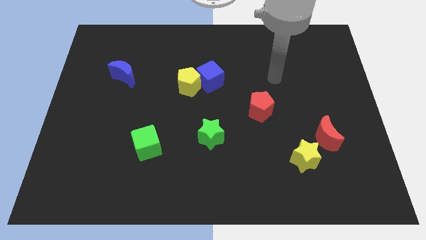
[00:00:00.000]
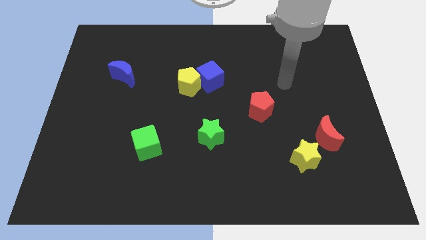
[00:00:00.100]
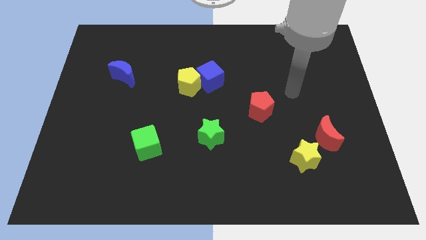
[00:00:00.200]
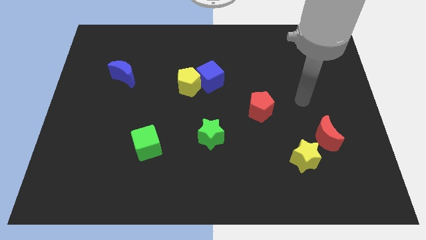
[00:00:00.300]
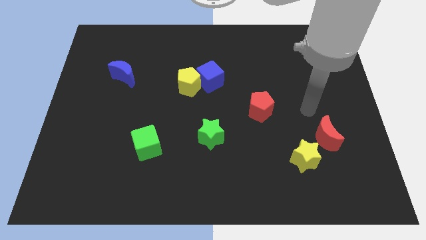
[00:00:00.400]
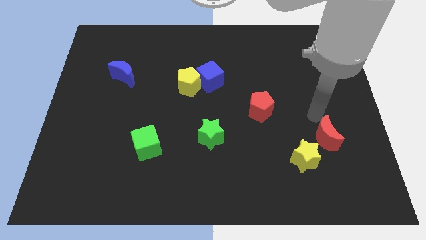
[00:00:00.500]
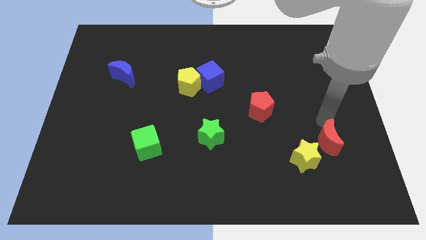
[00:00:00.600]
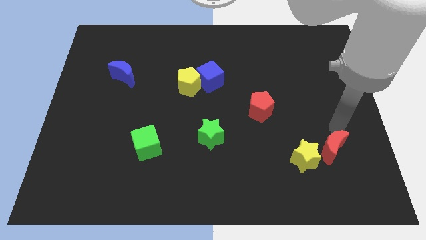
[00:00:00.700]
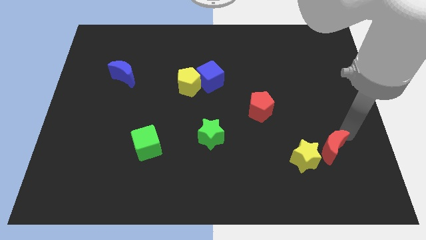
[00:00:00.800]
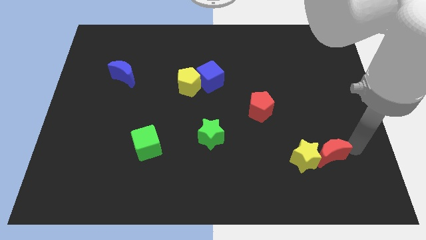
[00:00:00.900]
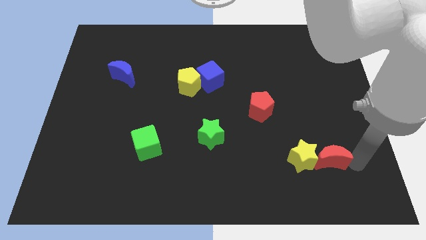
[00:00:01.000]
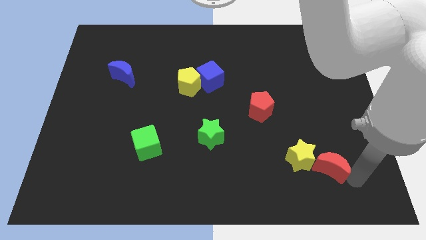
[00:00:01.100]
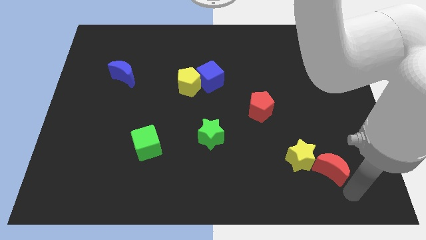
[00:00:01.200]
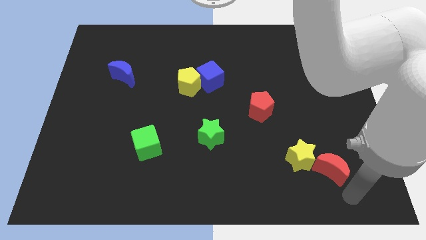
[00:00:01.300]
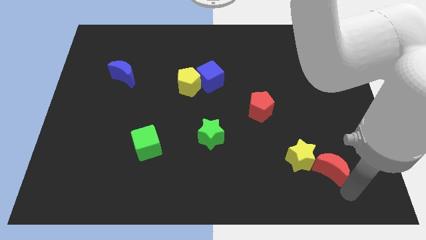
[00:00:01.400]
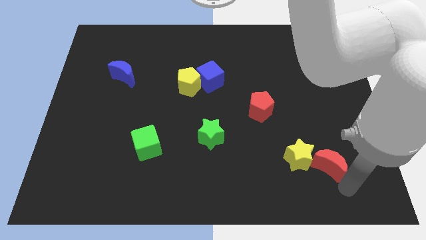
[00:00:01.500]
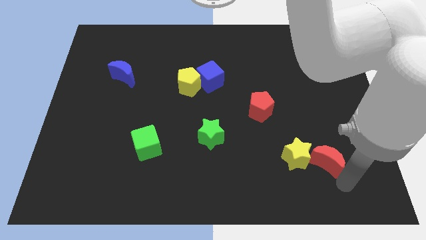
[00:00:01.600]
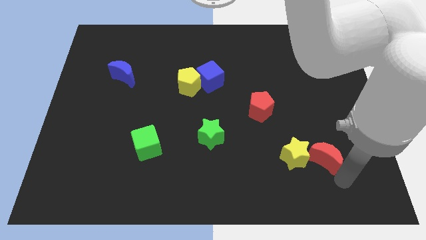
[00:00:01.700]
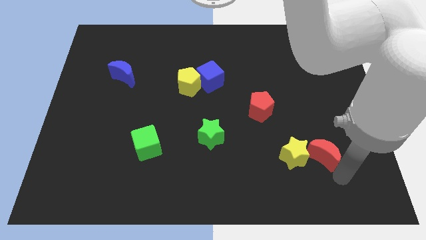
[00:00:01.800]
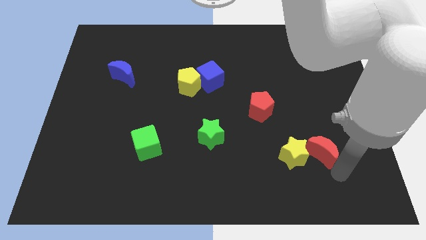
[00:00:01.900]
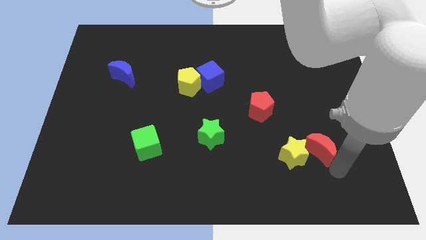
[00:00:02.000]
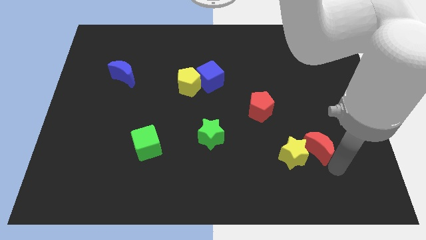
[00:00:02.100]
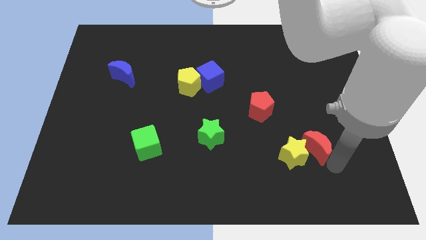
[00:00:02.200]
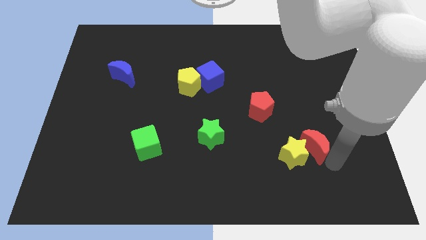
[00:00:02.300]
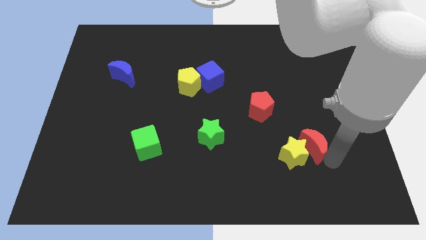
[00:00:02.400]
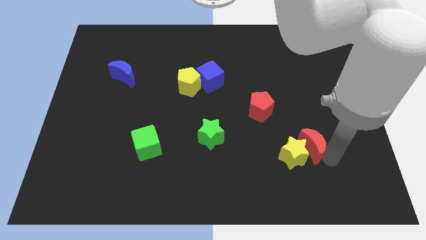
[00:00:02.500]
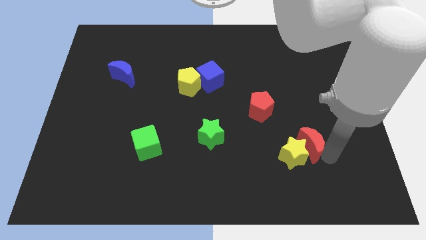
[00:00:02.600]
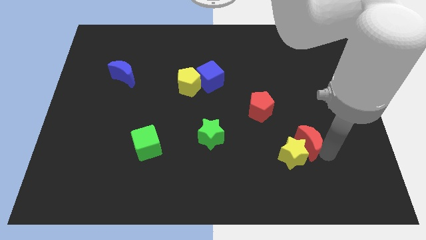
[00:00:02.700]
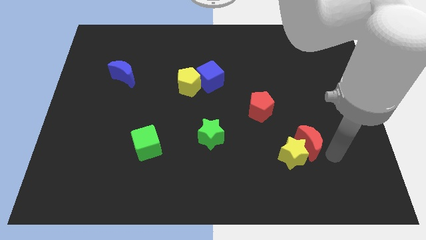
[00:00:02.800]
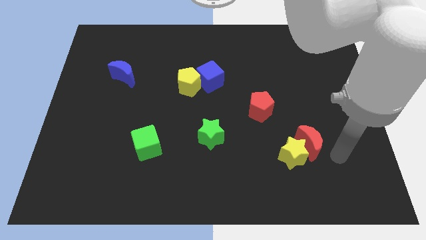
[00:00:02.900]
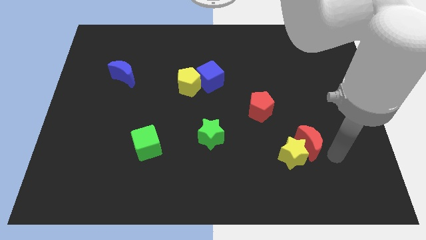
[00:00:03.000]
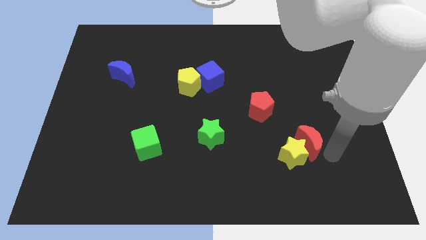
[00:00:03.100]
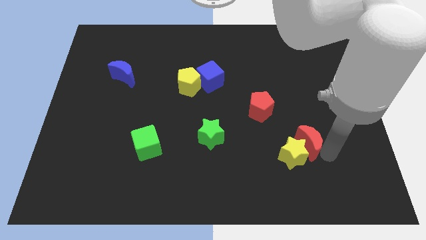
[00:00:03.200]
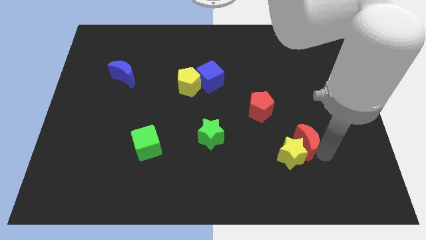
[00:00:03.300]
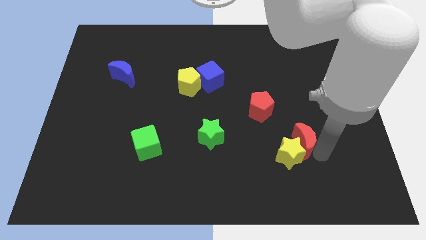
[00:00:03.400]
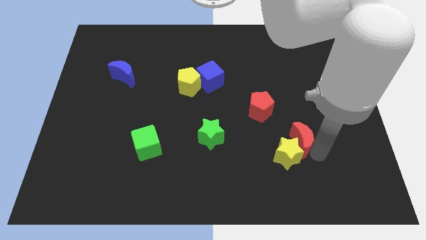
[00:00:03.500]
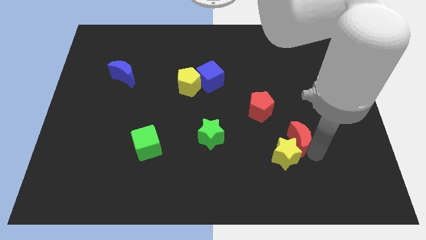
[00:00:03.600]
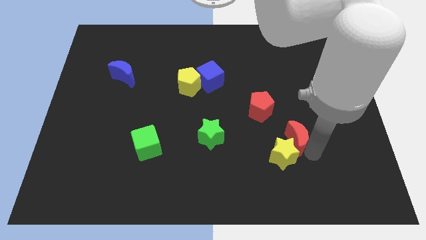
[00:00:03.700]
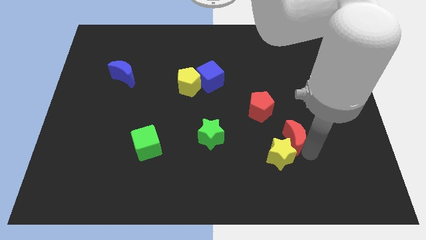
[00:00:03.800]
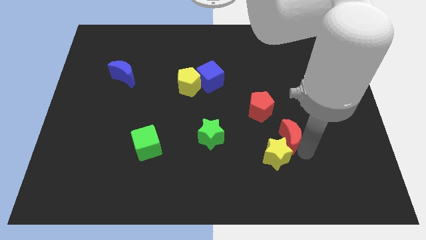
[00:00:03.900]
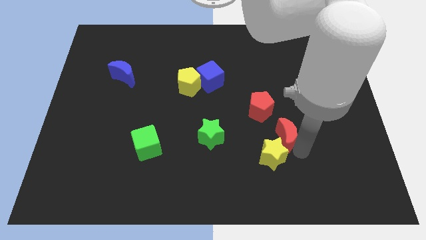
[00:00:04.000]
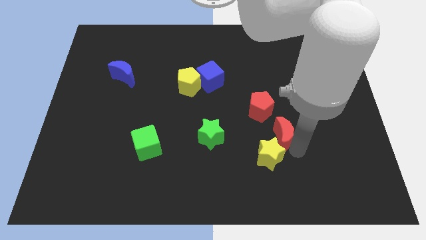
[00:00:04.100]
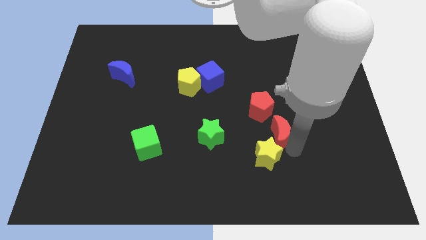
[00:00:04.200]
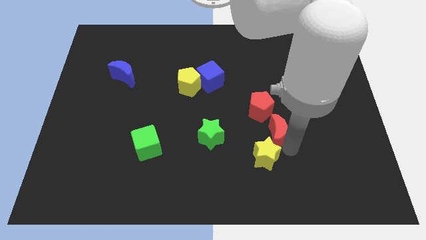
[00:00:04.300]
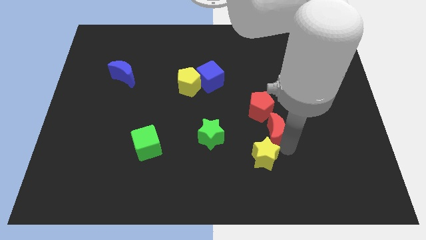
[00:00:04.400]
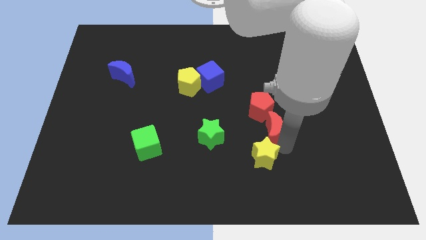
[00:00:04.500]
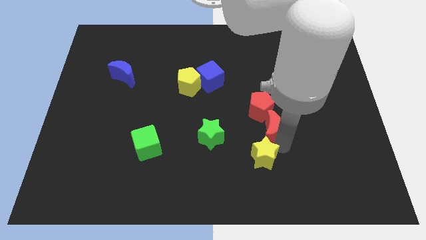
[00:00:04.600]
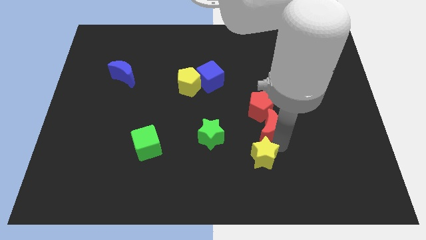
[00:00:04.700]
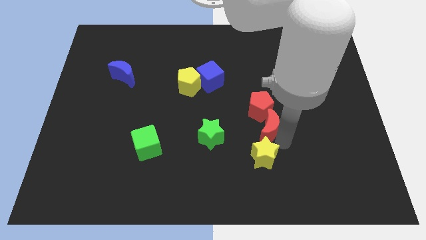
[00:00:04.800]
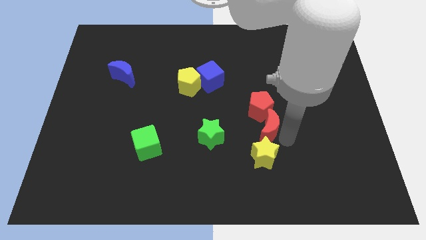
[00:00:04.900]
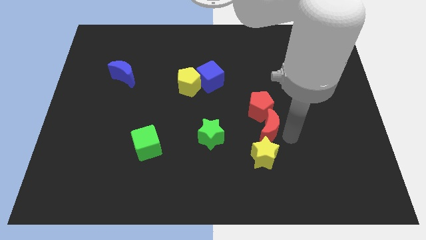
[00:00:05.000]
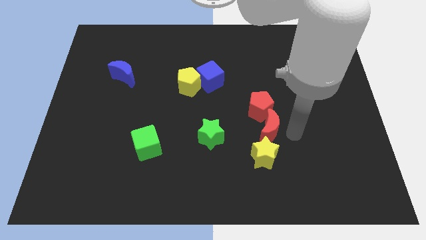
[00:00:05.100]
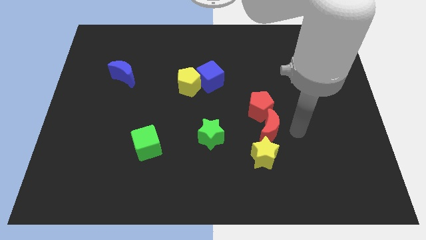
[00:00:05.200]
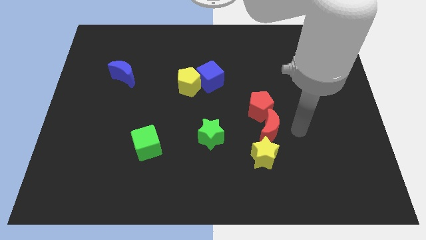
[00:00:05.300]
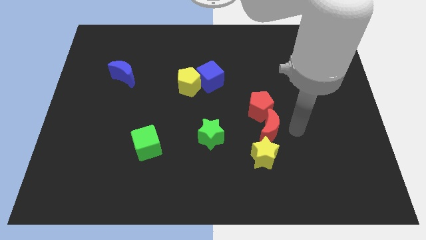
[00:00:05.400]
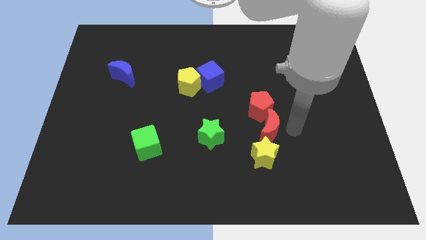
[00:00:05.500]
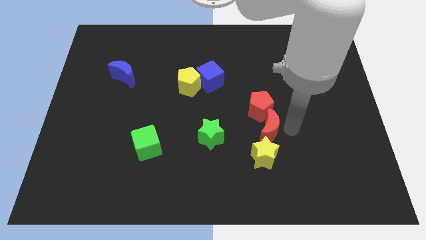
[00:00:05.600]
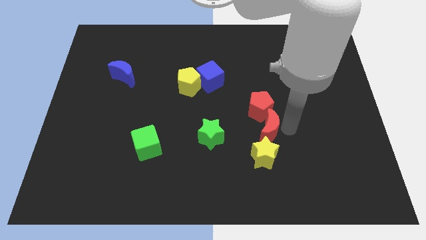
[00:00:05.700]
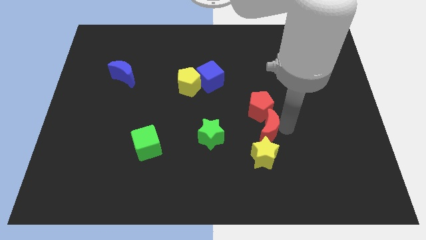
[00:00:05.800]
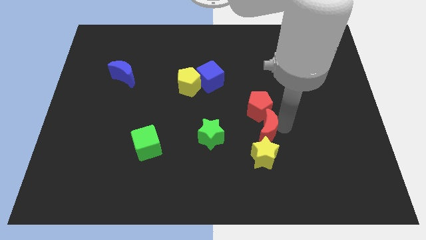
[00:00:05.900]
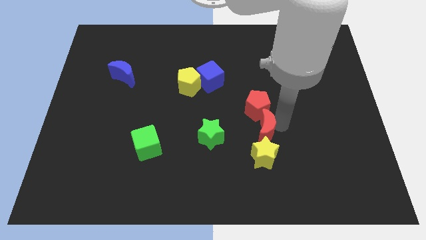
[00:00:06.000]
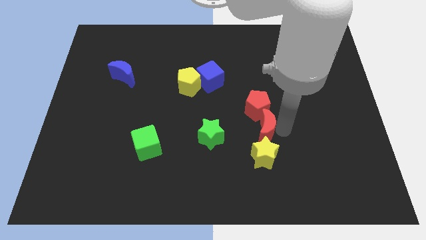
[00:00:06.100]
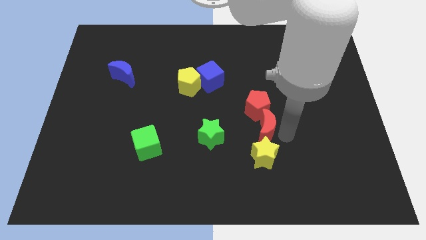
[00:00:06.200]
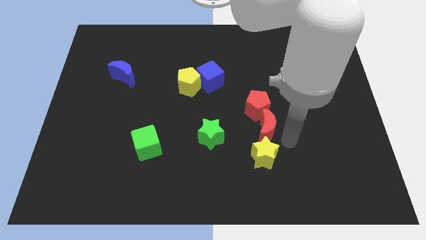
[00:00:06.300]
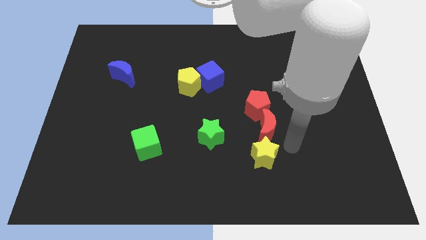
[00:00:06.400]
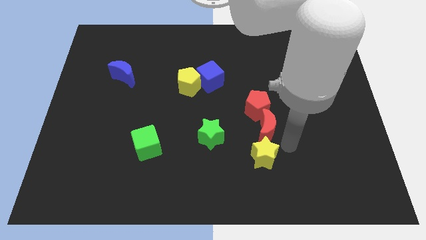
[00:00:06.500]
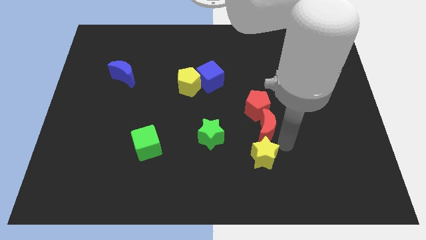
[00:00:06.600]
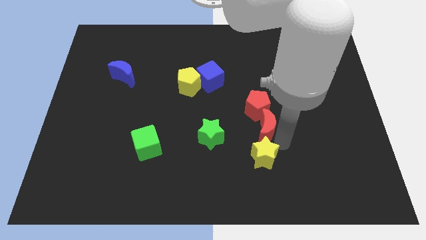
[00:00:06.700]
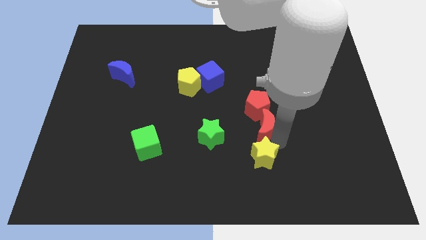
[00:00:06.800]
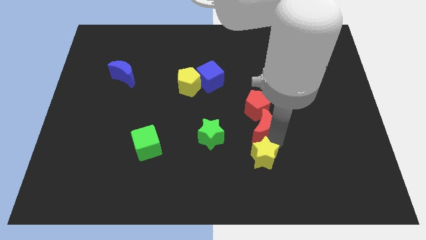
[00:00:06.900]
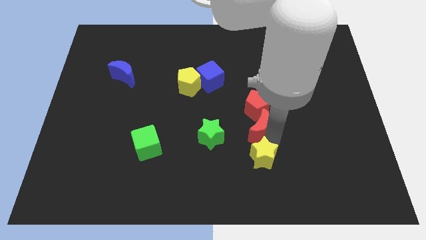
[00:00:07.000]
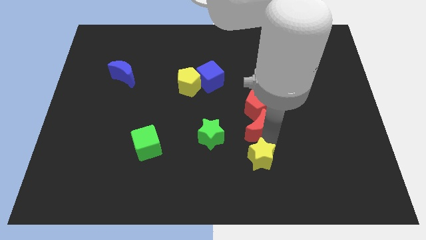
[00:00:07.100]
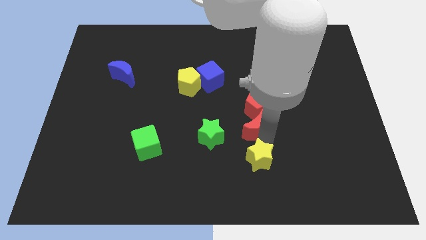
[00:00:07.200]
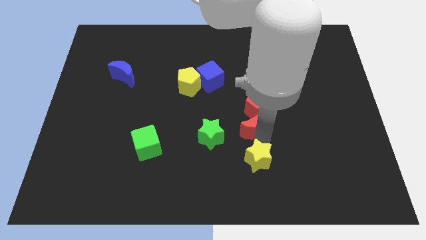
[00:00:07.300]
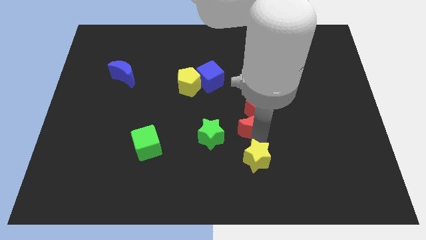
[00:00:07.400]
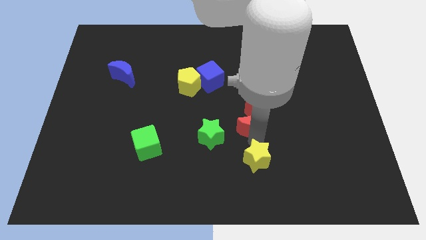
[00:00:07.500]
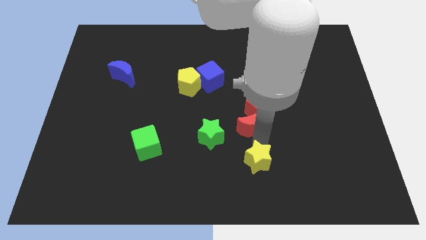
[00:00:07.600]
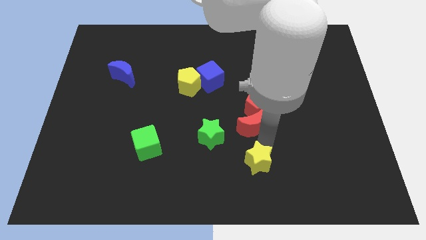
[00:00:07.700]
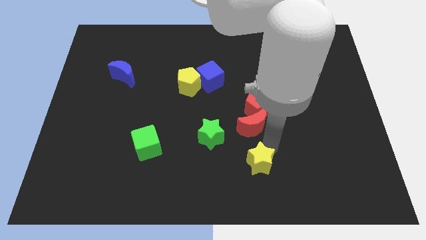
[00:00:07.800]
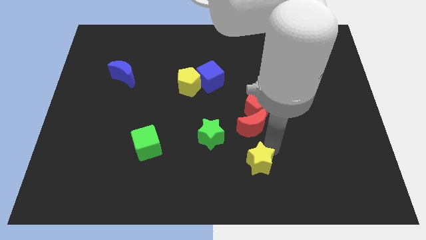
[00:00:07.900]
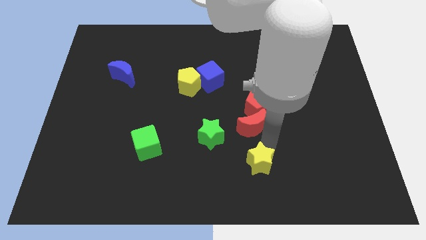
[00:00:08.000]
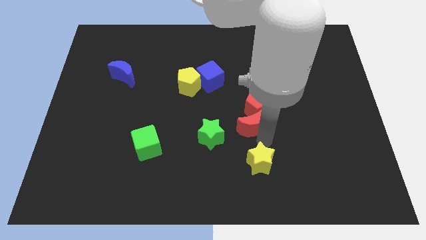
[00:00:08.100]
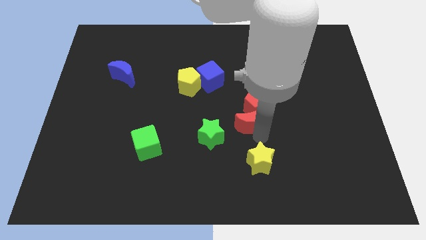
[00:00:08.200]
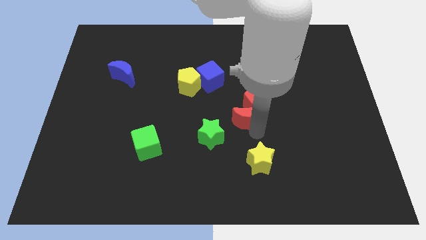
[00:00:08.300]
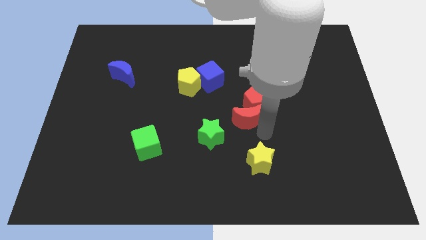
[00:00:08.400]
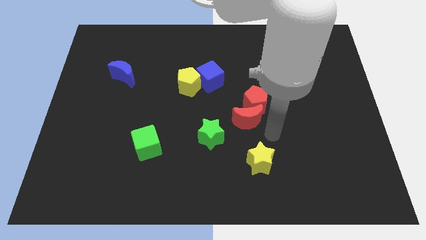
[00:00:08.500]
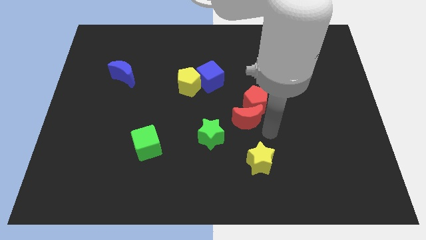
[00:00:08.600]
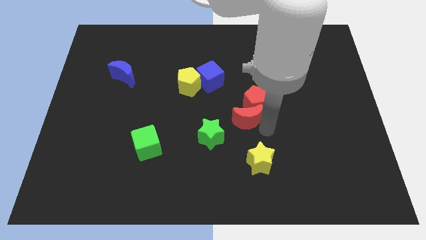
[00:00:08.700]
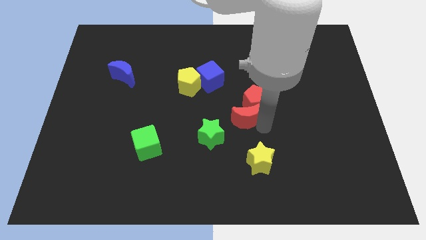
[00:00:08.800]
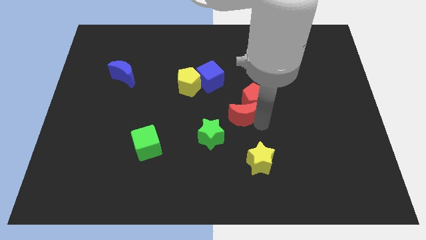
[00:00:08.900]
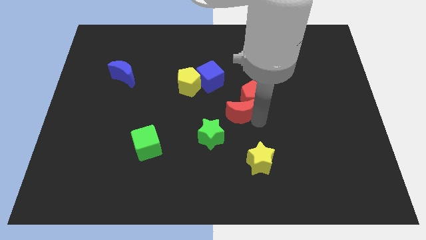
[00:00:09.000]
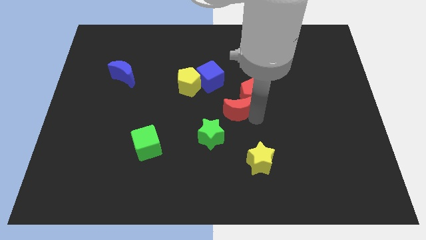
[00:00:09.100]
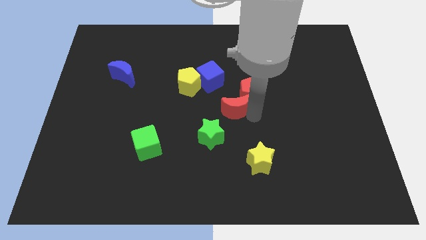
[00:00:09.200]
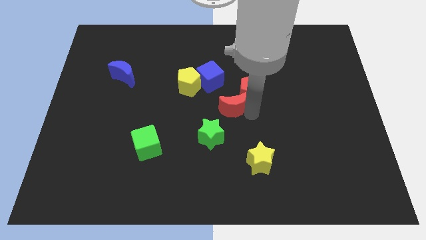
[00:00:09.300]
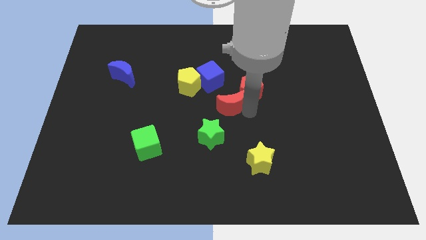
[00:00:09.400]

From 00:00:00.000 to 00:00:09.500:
move the red moon diagonally down and to the right of the yellow pentagon
